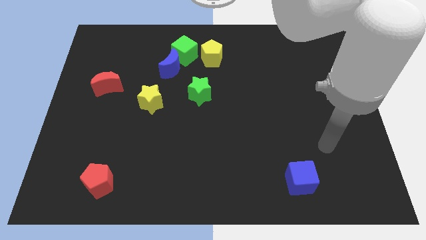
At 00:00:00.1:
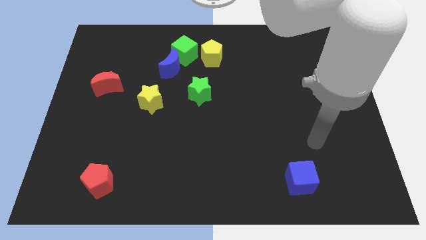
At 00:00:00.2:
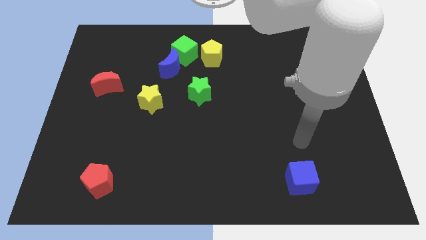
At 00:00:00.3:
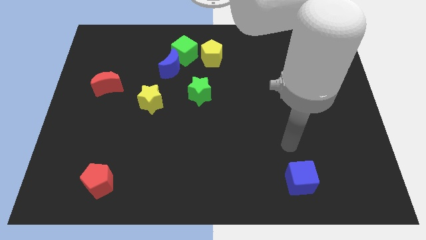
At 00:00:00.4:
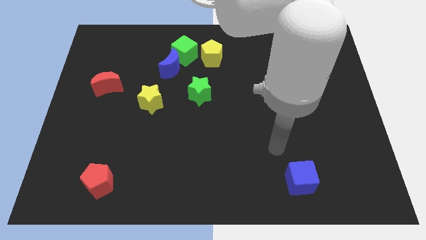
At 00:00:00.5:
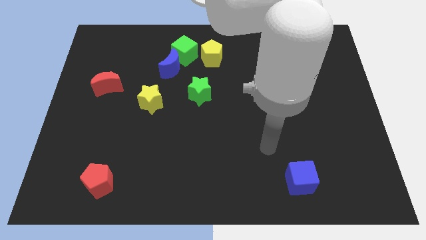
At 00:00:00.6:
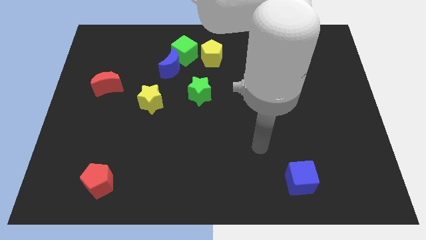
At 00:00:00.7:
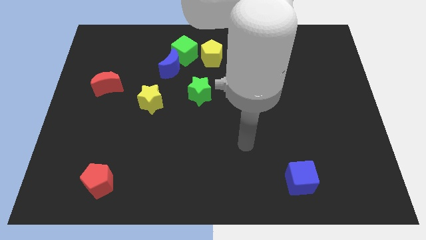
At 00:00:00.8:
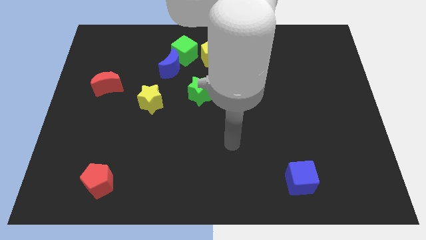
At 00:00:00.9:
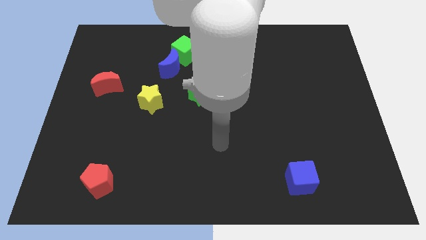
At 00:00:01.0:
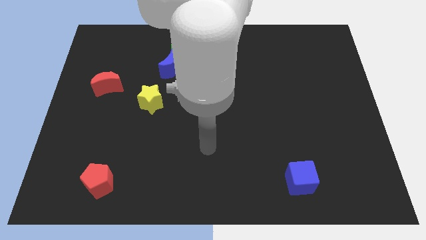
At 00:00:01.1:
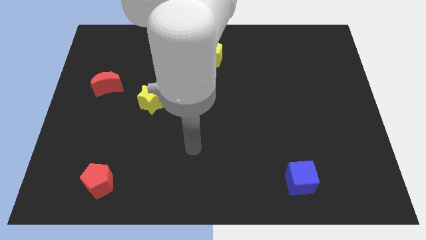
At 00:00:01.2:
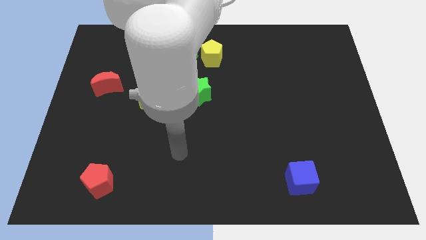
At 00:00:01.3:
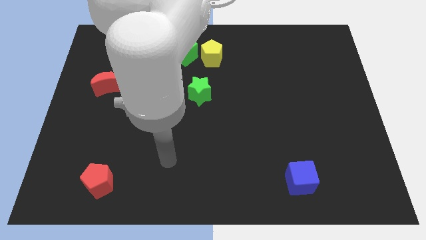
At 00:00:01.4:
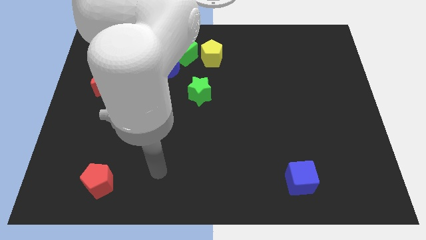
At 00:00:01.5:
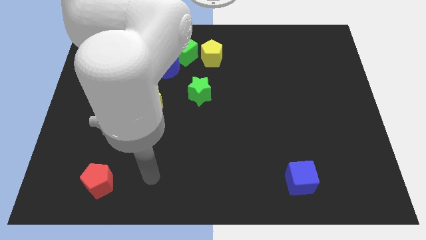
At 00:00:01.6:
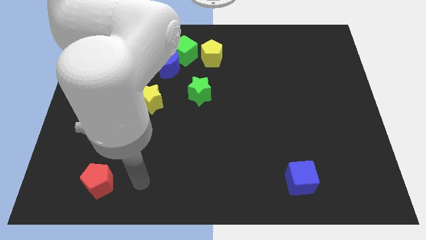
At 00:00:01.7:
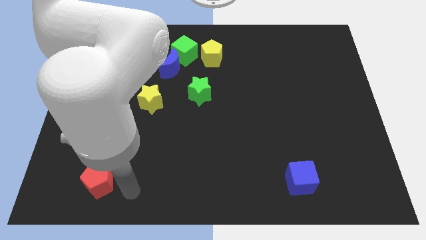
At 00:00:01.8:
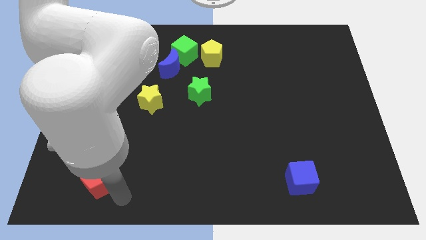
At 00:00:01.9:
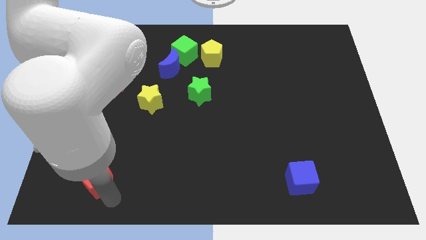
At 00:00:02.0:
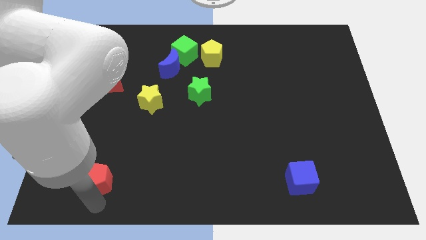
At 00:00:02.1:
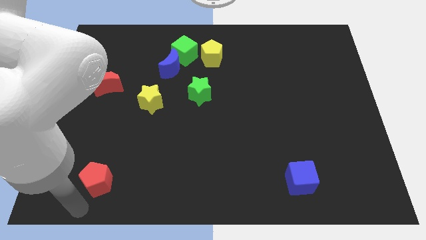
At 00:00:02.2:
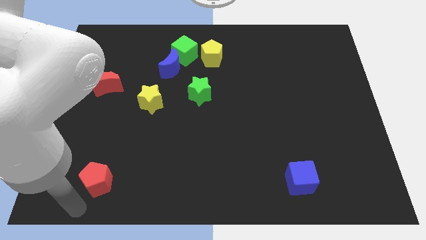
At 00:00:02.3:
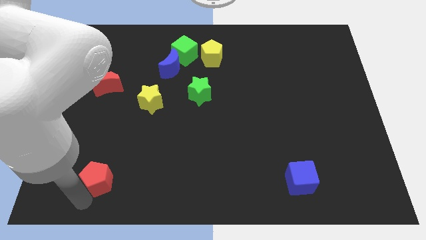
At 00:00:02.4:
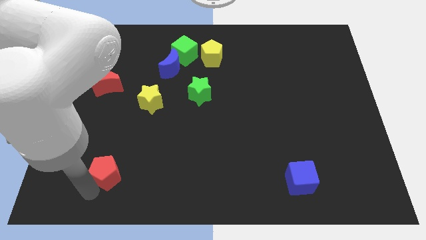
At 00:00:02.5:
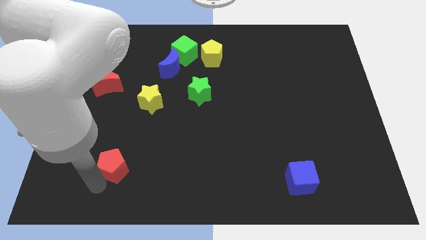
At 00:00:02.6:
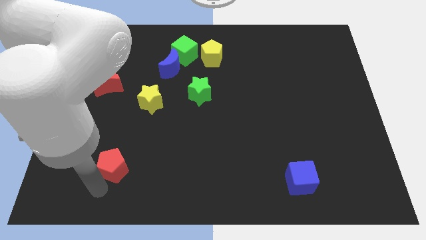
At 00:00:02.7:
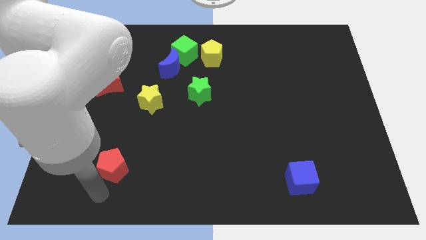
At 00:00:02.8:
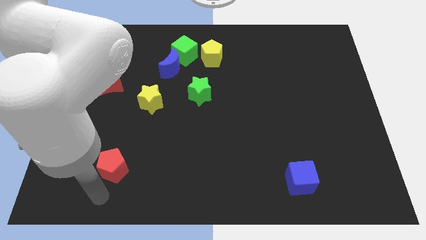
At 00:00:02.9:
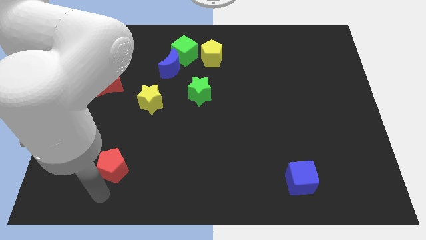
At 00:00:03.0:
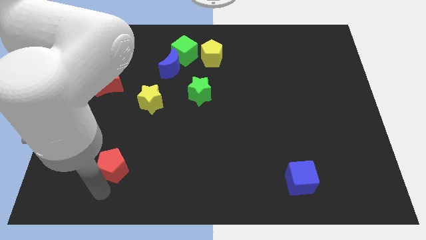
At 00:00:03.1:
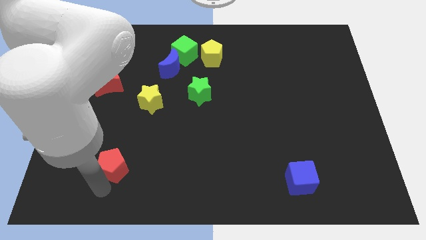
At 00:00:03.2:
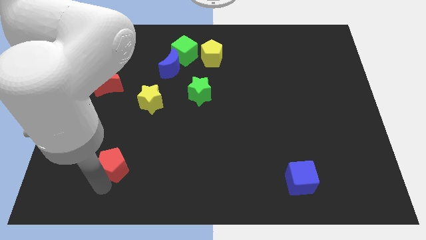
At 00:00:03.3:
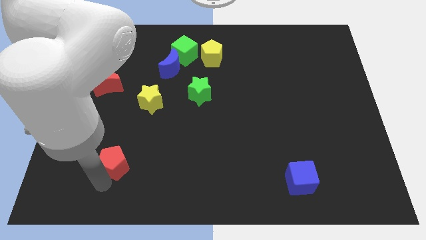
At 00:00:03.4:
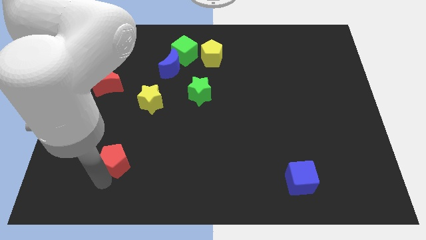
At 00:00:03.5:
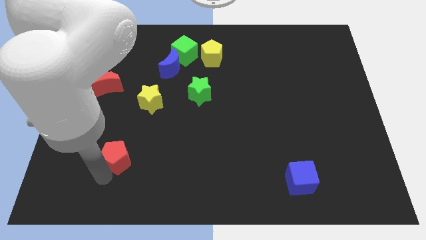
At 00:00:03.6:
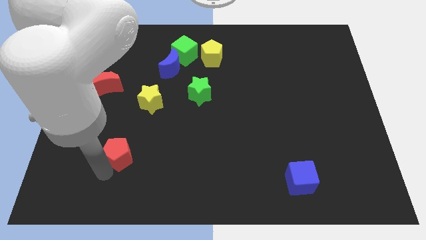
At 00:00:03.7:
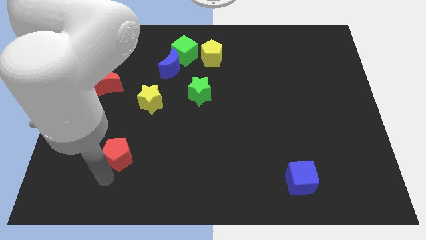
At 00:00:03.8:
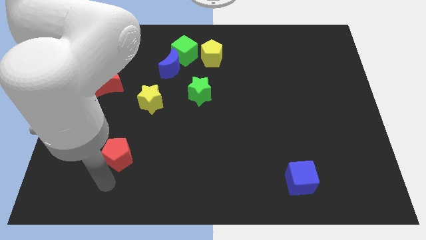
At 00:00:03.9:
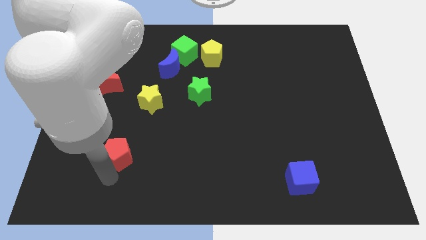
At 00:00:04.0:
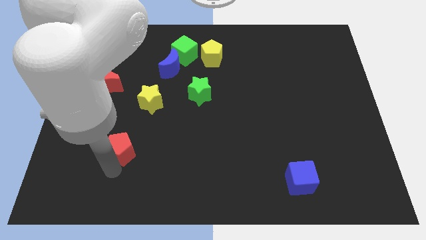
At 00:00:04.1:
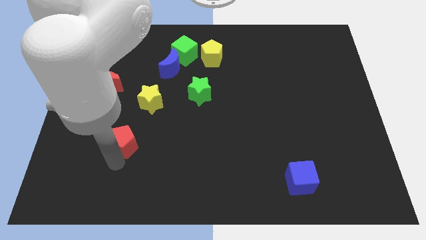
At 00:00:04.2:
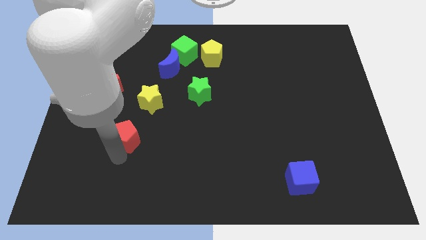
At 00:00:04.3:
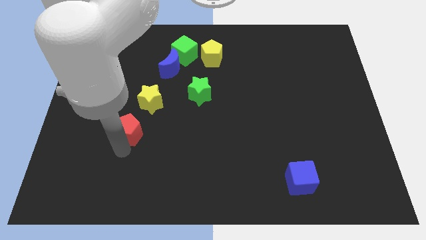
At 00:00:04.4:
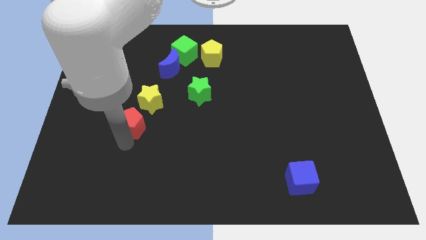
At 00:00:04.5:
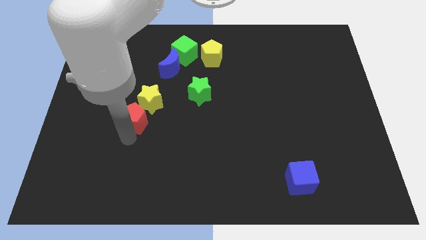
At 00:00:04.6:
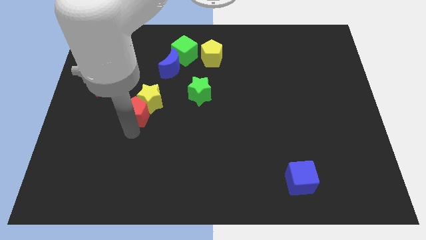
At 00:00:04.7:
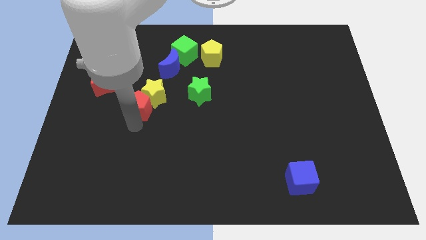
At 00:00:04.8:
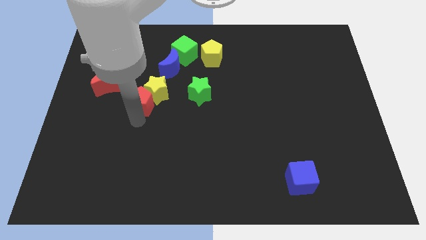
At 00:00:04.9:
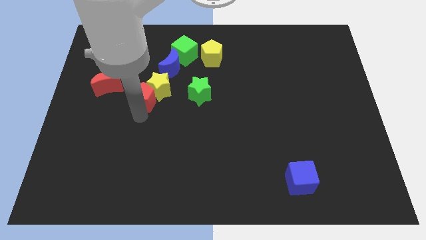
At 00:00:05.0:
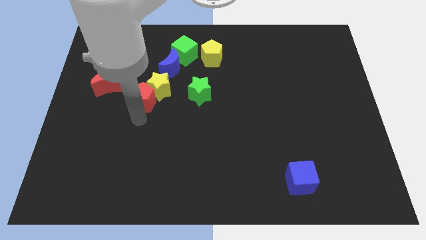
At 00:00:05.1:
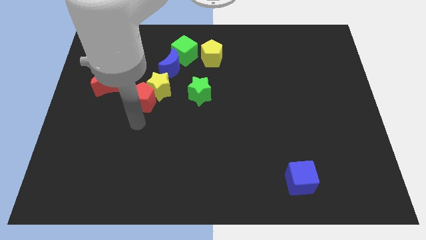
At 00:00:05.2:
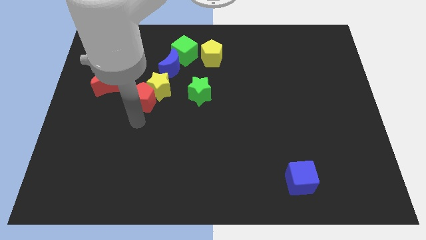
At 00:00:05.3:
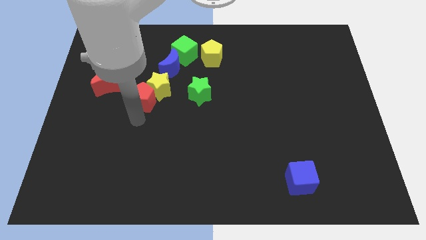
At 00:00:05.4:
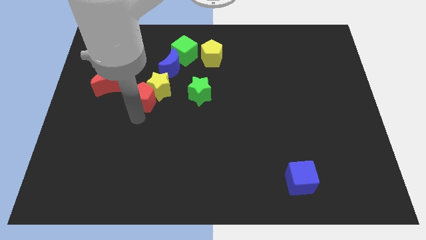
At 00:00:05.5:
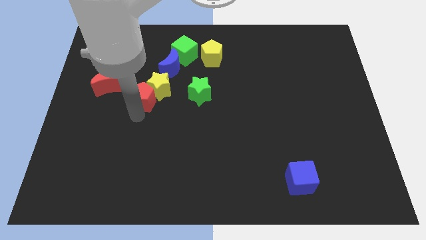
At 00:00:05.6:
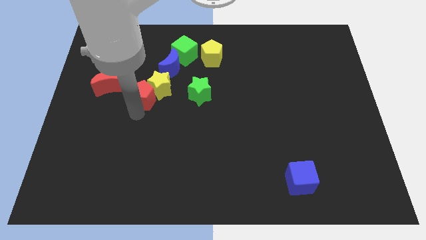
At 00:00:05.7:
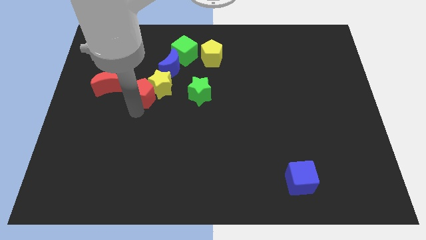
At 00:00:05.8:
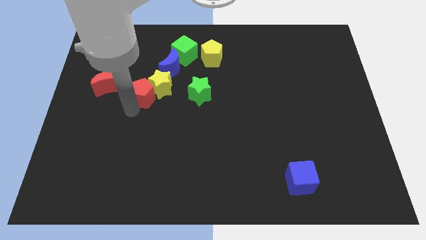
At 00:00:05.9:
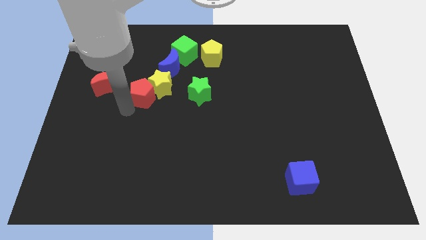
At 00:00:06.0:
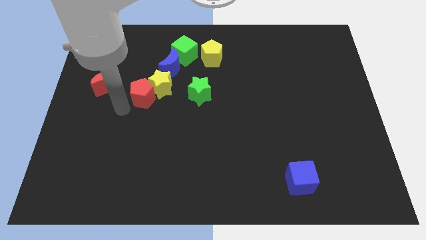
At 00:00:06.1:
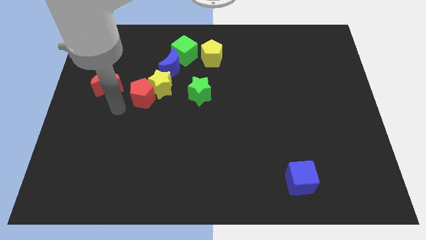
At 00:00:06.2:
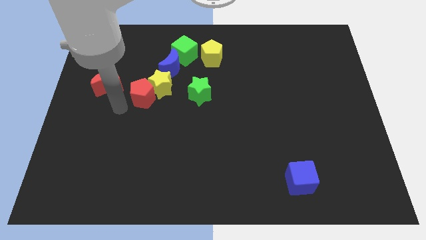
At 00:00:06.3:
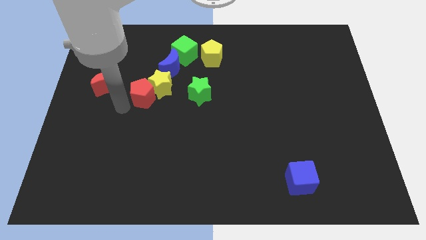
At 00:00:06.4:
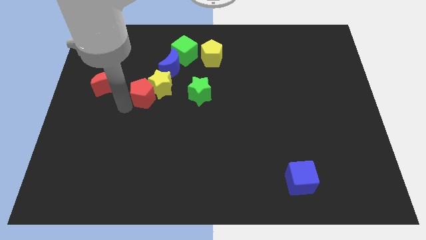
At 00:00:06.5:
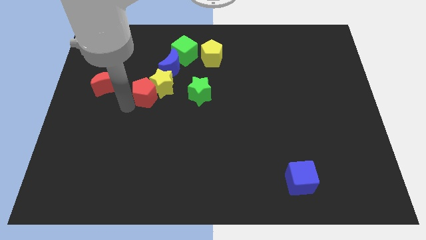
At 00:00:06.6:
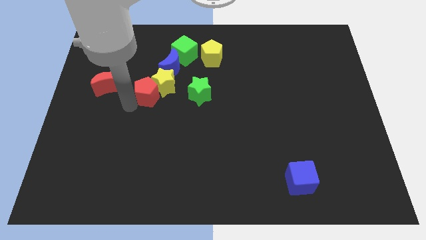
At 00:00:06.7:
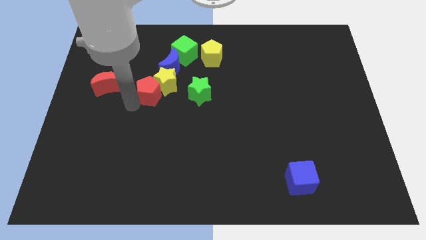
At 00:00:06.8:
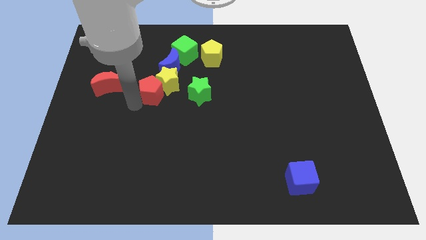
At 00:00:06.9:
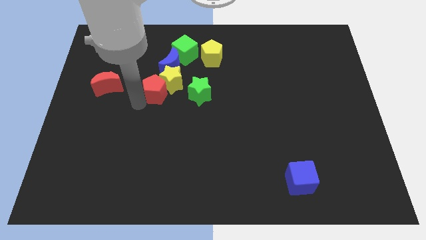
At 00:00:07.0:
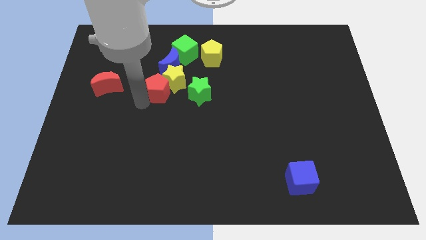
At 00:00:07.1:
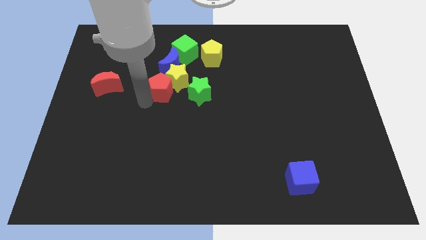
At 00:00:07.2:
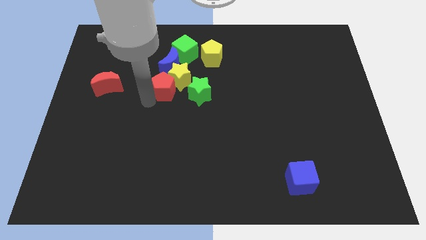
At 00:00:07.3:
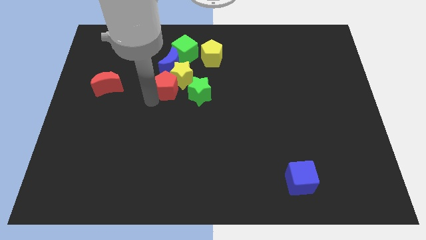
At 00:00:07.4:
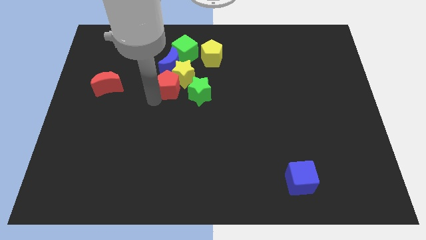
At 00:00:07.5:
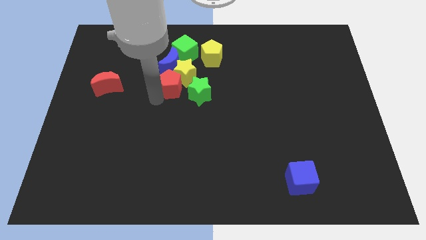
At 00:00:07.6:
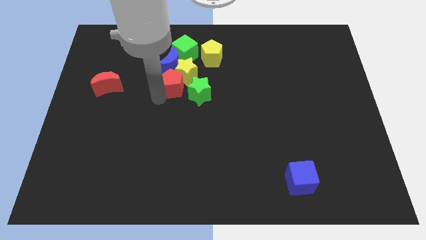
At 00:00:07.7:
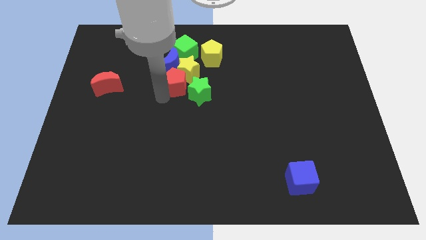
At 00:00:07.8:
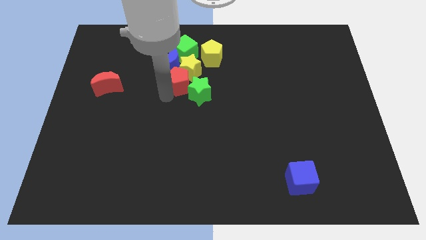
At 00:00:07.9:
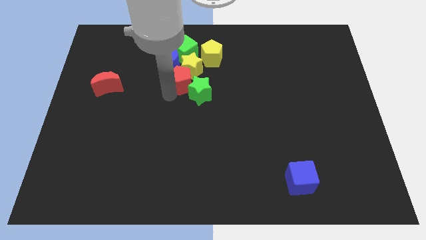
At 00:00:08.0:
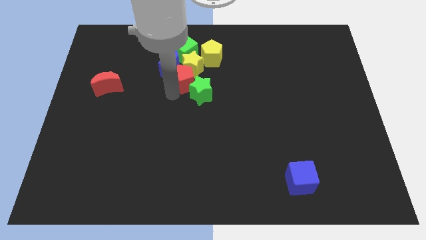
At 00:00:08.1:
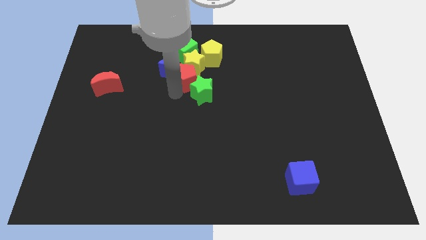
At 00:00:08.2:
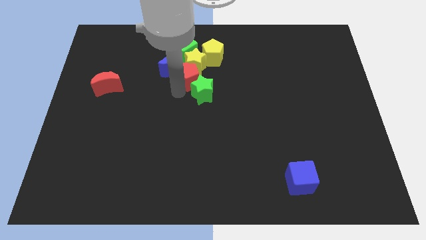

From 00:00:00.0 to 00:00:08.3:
move the red pentagon just right of the blue moon
